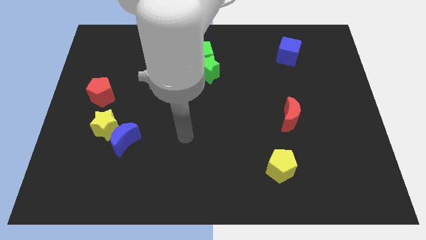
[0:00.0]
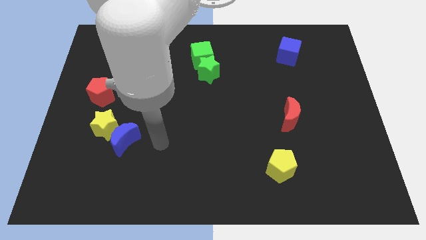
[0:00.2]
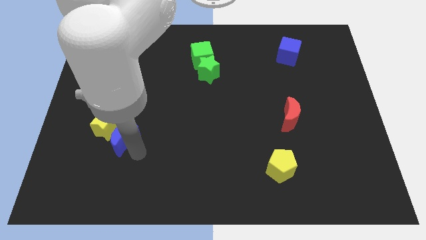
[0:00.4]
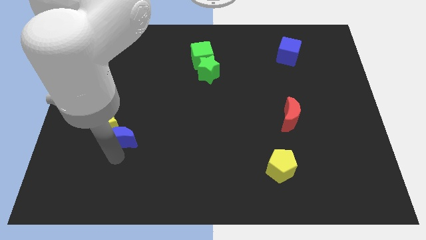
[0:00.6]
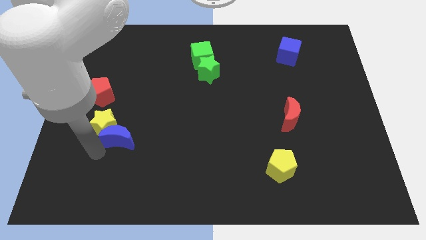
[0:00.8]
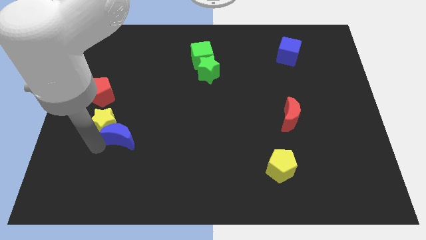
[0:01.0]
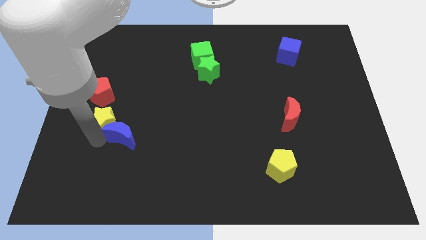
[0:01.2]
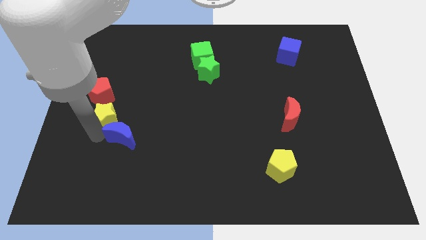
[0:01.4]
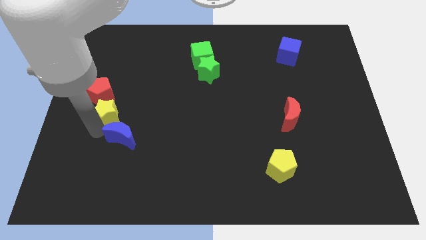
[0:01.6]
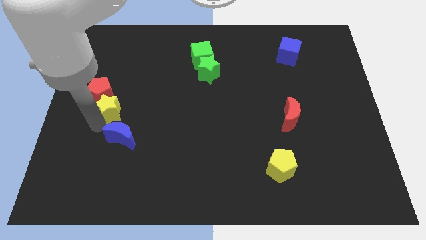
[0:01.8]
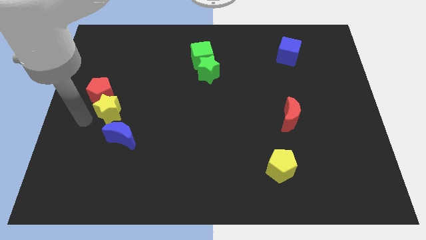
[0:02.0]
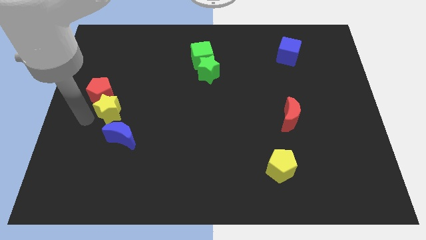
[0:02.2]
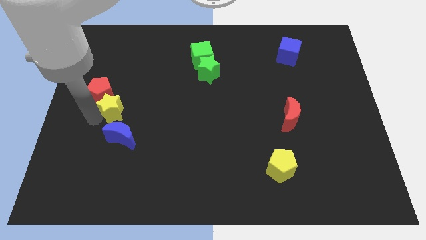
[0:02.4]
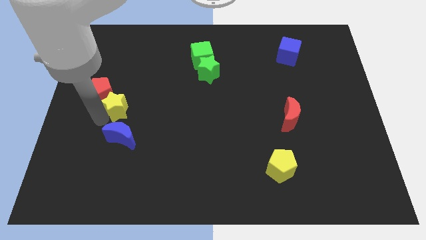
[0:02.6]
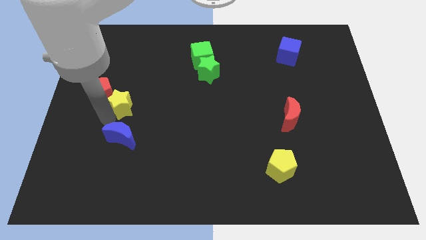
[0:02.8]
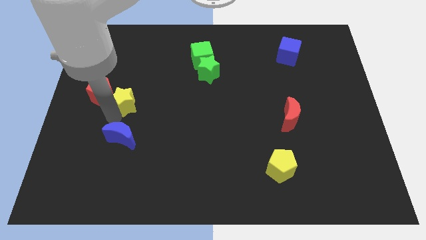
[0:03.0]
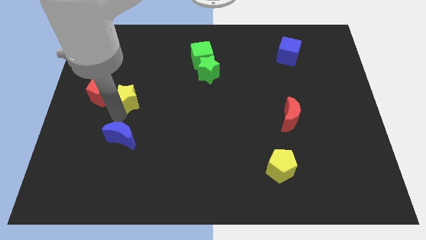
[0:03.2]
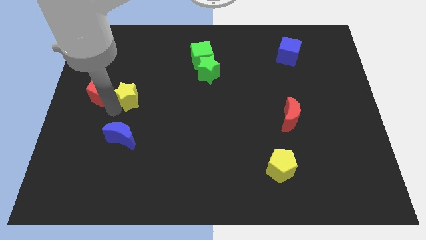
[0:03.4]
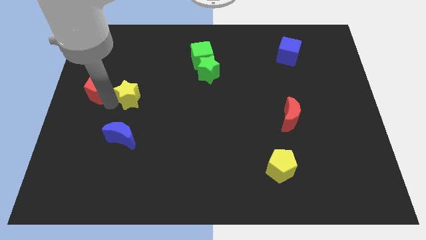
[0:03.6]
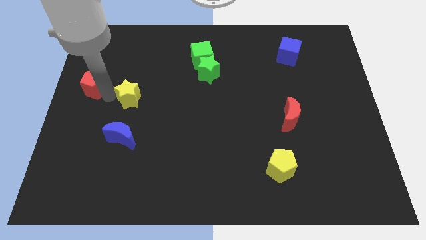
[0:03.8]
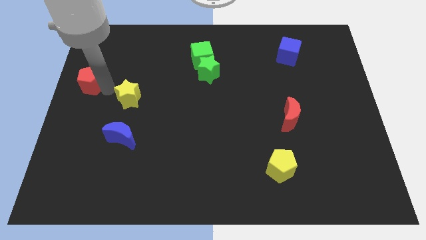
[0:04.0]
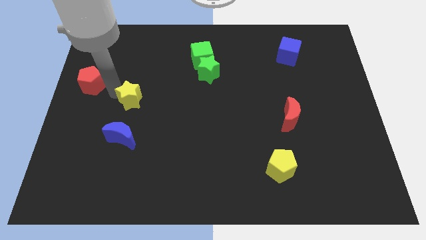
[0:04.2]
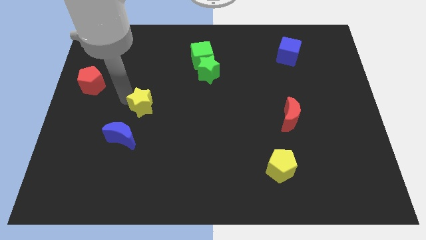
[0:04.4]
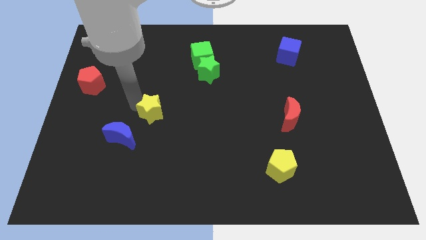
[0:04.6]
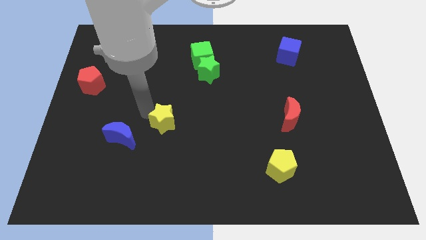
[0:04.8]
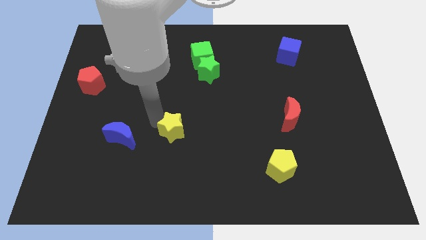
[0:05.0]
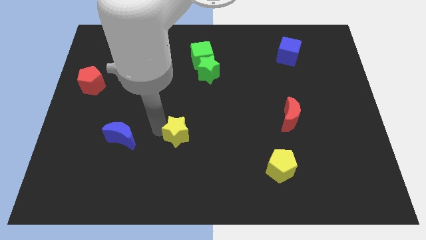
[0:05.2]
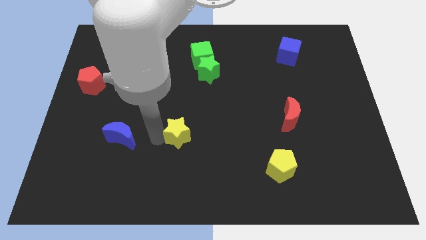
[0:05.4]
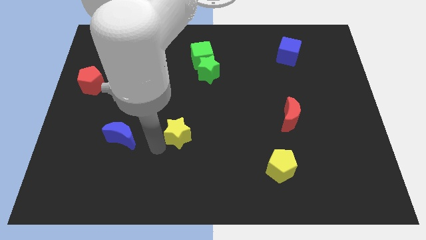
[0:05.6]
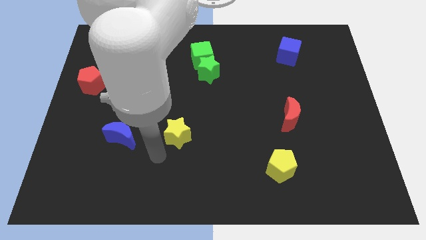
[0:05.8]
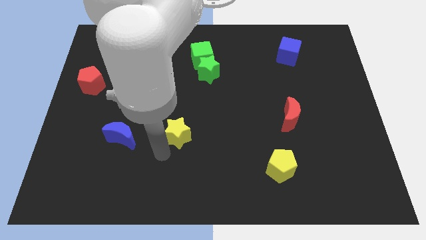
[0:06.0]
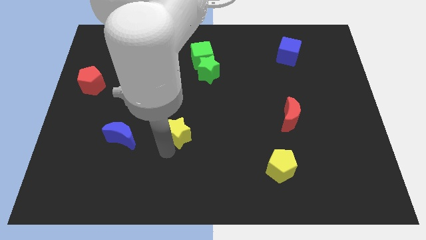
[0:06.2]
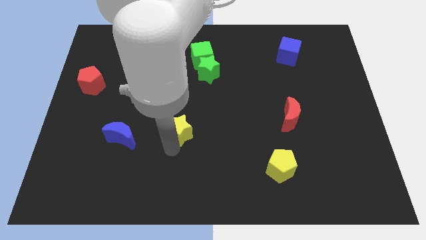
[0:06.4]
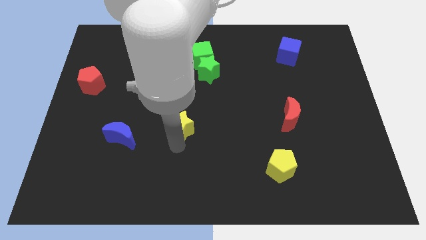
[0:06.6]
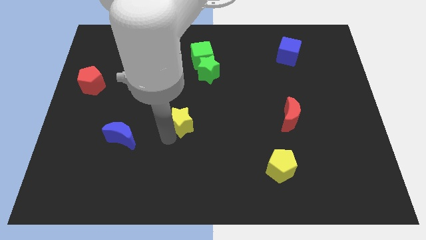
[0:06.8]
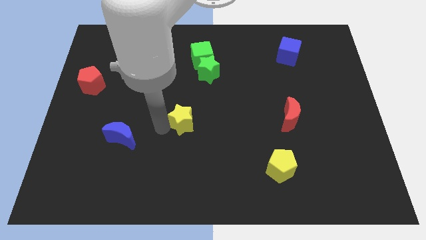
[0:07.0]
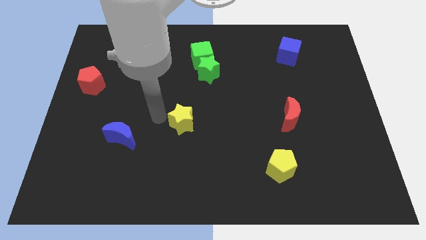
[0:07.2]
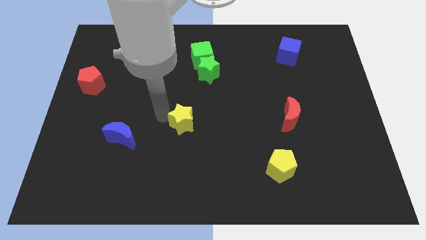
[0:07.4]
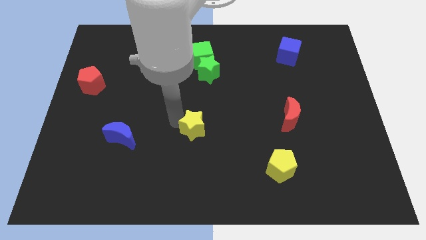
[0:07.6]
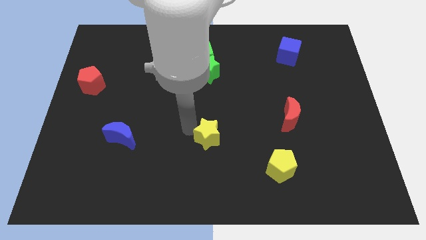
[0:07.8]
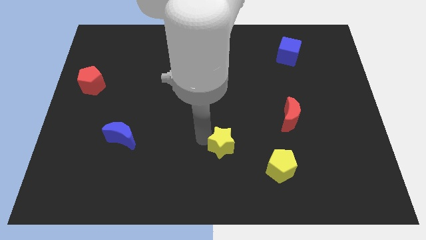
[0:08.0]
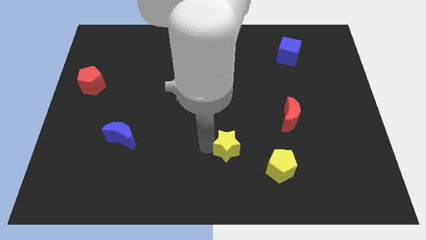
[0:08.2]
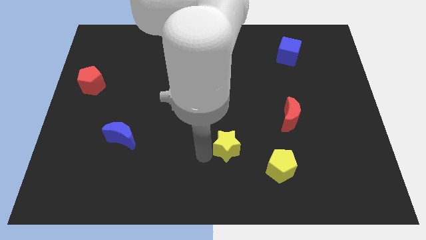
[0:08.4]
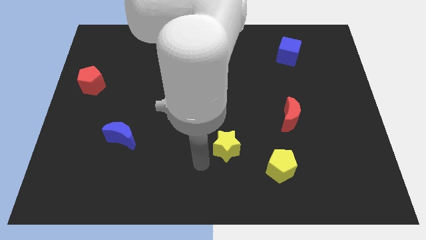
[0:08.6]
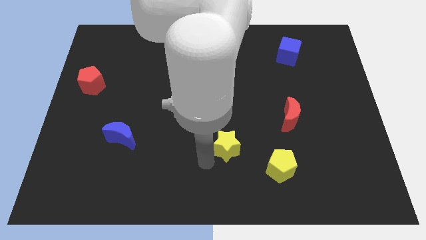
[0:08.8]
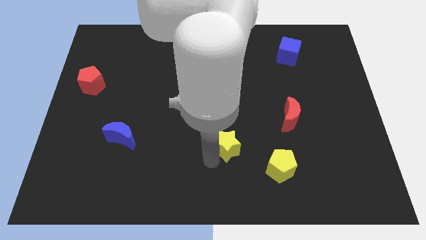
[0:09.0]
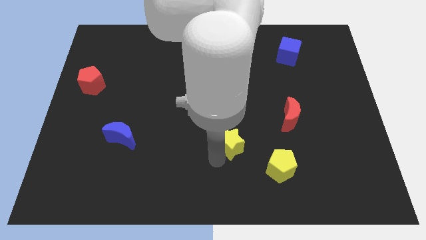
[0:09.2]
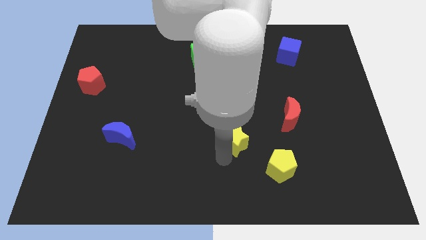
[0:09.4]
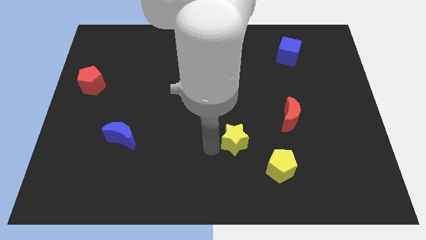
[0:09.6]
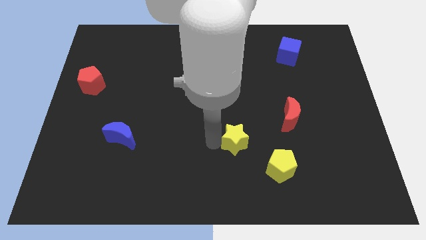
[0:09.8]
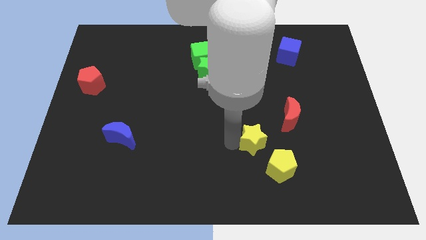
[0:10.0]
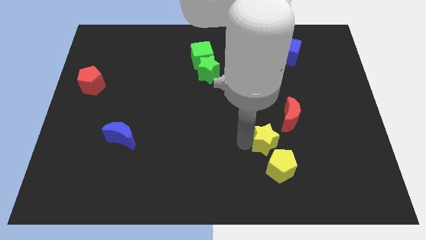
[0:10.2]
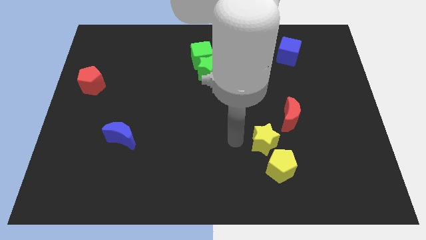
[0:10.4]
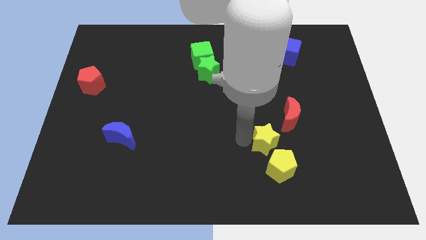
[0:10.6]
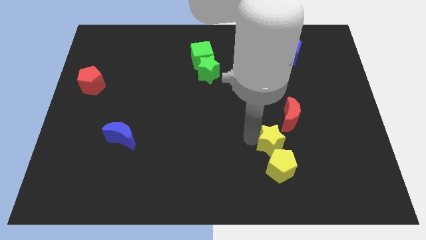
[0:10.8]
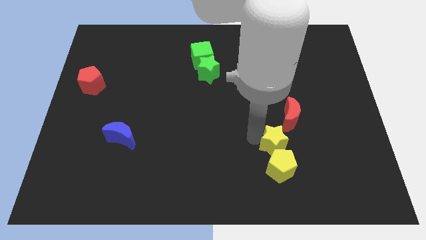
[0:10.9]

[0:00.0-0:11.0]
move the yellow star to the top right side of the yellow pentagon

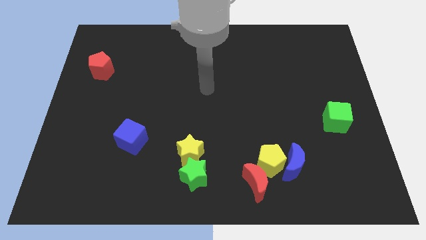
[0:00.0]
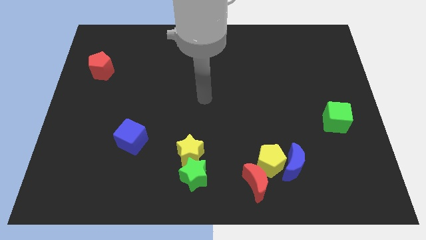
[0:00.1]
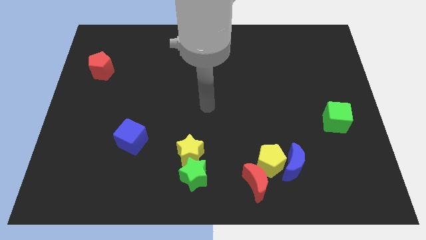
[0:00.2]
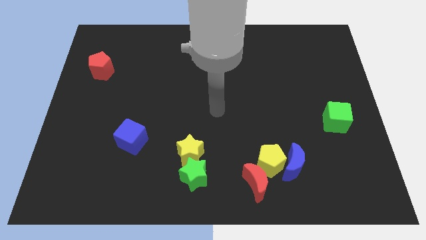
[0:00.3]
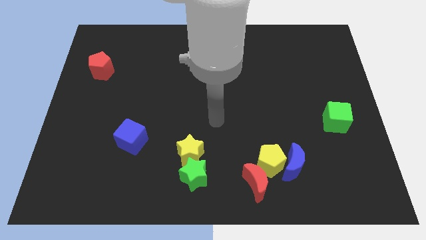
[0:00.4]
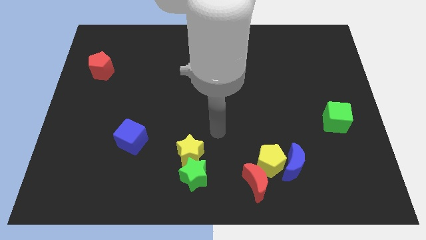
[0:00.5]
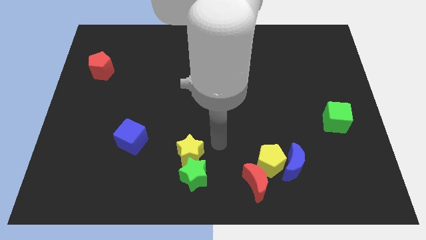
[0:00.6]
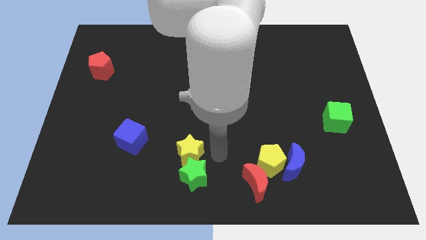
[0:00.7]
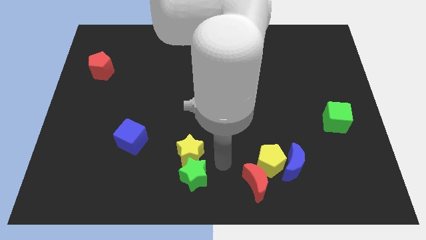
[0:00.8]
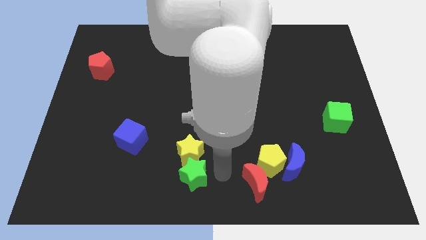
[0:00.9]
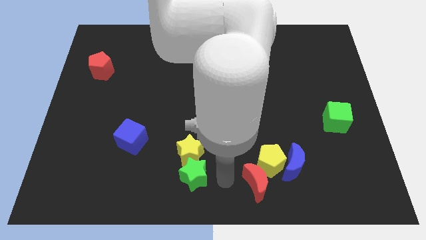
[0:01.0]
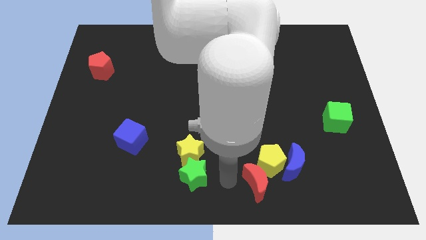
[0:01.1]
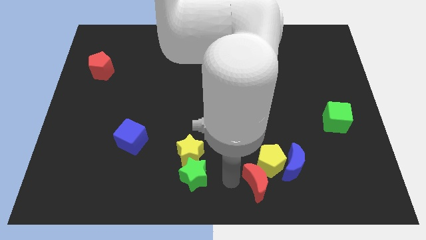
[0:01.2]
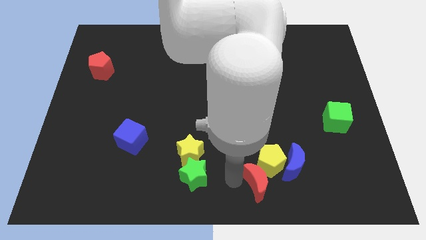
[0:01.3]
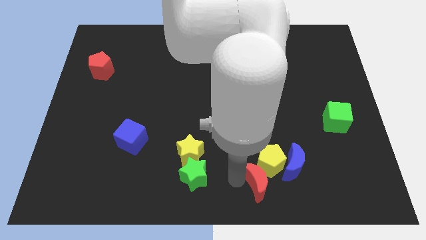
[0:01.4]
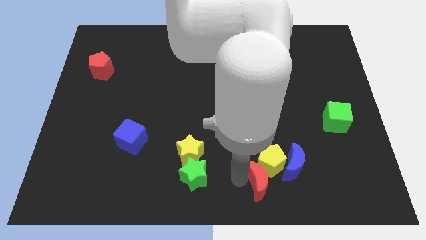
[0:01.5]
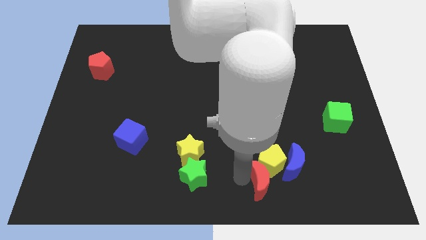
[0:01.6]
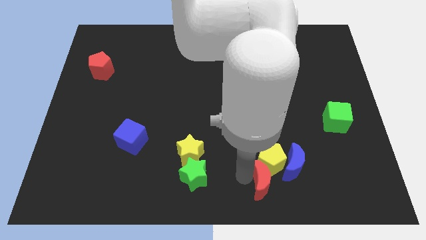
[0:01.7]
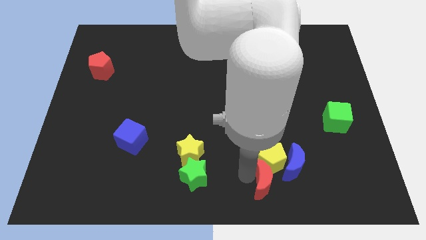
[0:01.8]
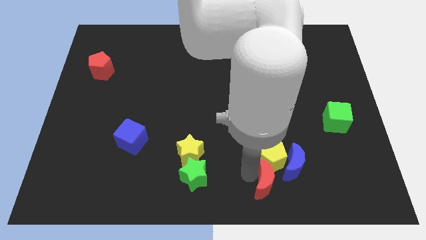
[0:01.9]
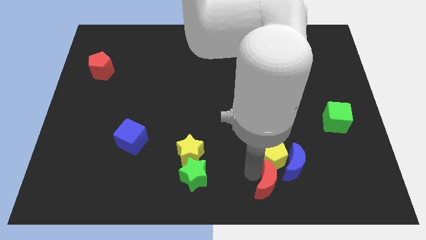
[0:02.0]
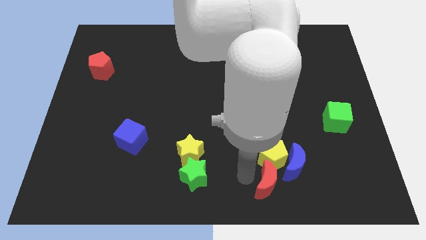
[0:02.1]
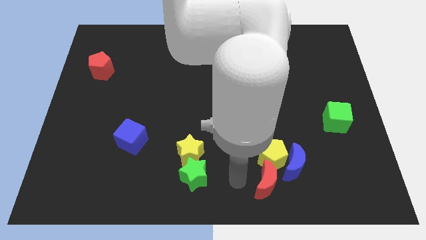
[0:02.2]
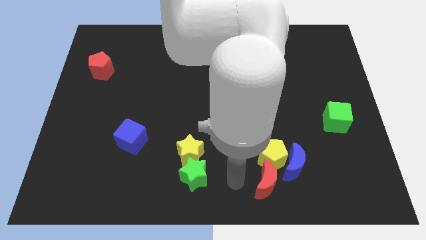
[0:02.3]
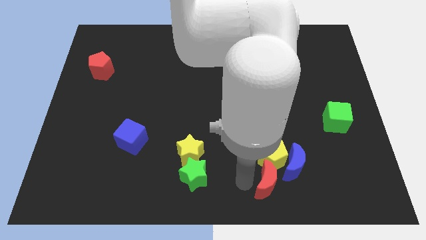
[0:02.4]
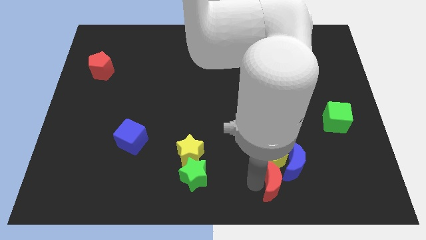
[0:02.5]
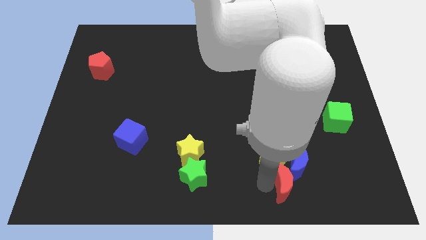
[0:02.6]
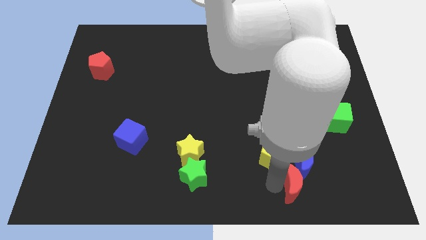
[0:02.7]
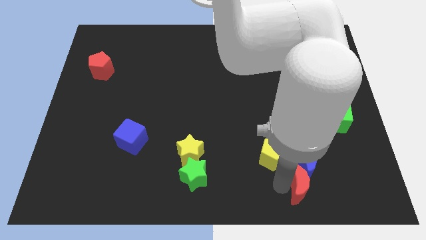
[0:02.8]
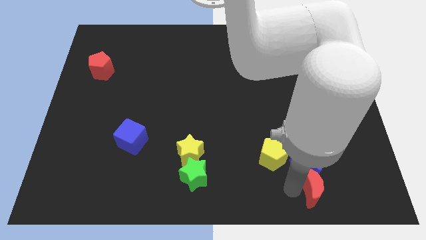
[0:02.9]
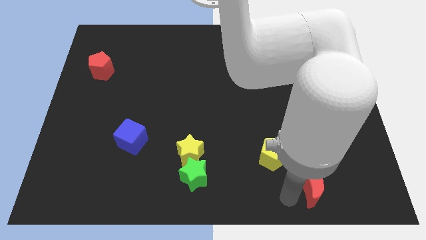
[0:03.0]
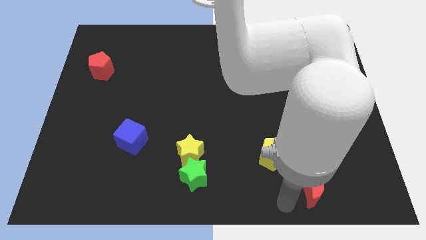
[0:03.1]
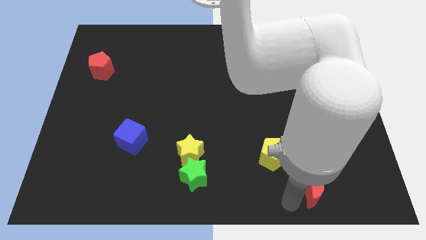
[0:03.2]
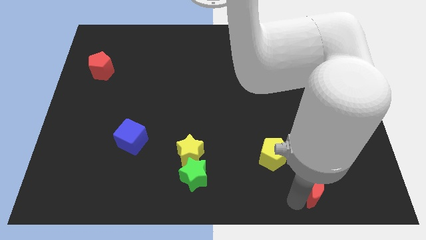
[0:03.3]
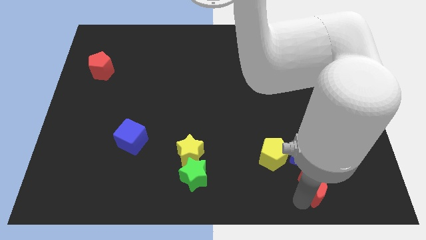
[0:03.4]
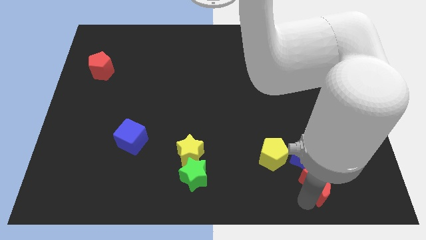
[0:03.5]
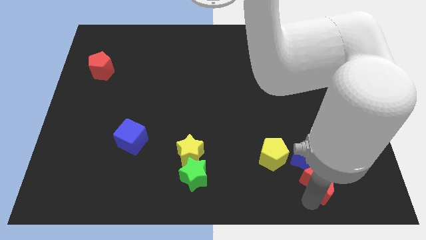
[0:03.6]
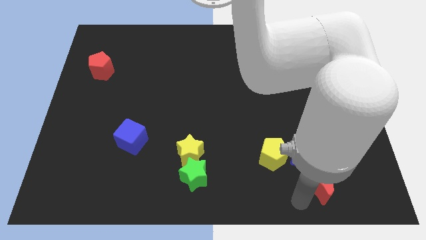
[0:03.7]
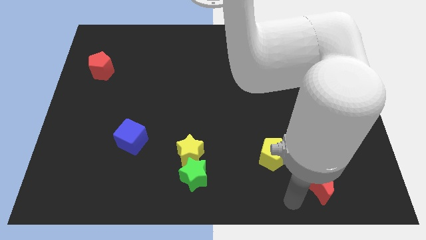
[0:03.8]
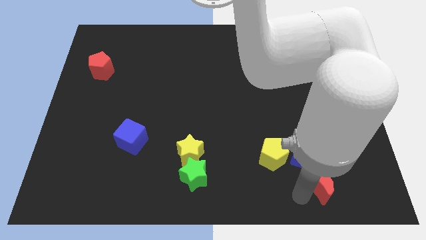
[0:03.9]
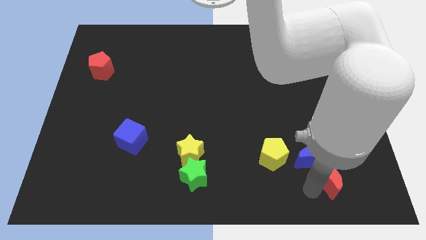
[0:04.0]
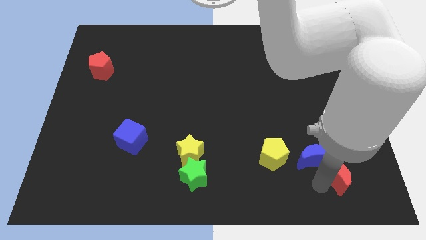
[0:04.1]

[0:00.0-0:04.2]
slide the red moon just right of the blue moon
